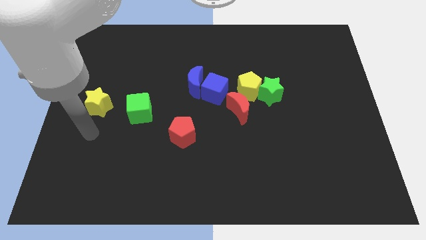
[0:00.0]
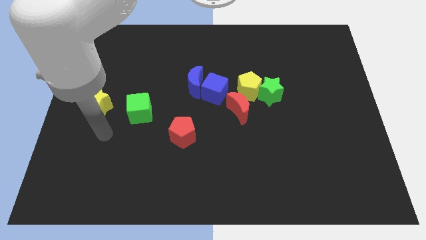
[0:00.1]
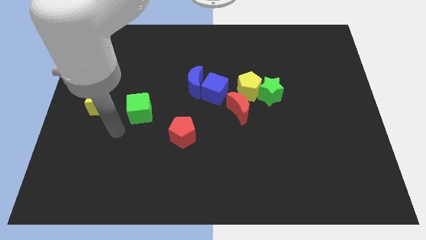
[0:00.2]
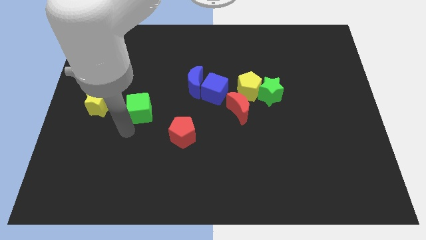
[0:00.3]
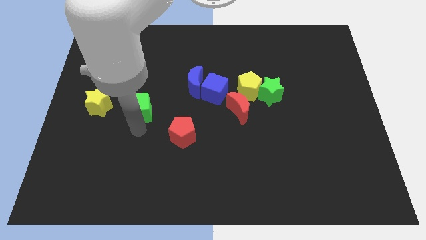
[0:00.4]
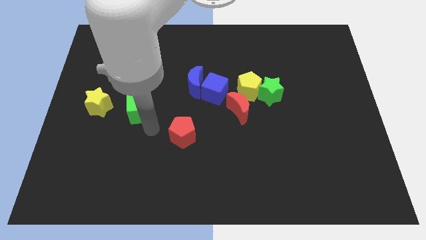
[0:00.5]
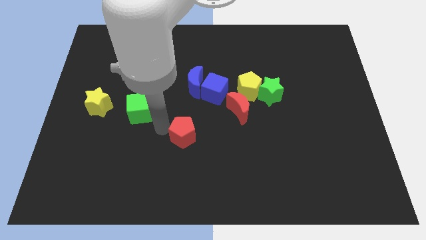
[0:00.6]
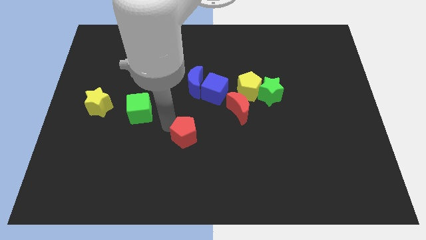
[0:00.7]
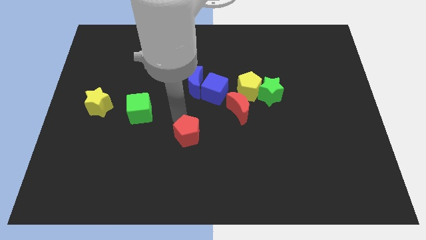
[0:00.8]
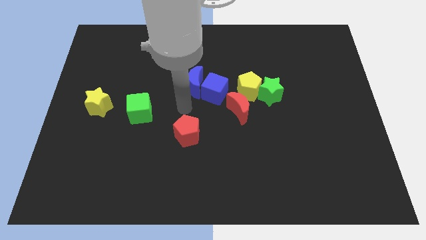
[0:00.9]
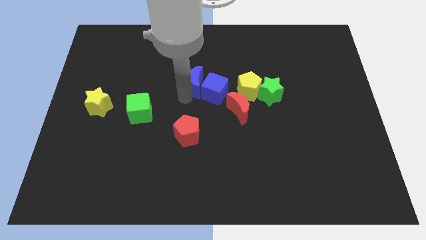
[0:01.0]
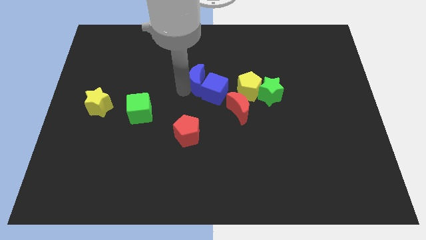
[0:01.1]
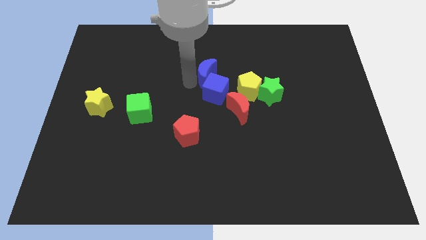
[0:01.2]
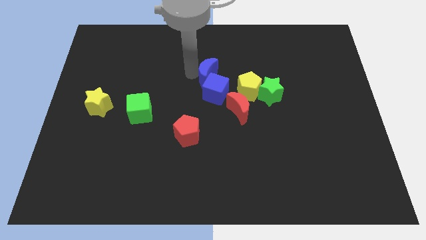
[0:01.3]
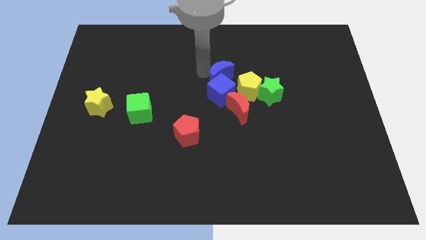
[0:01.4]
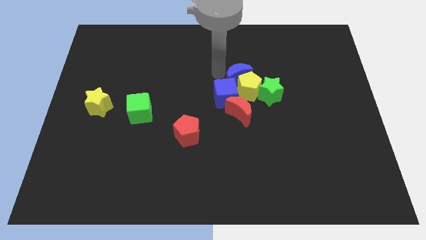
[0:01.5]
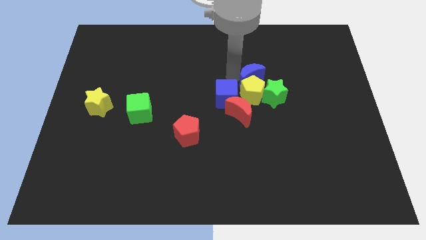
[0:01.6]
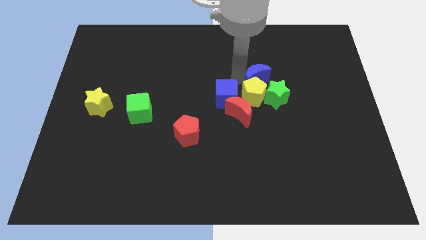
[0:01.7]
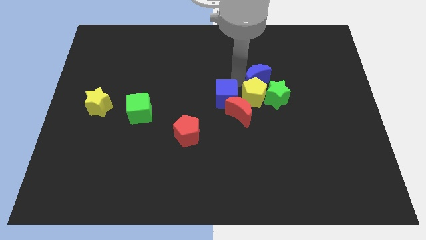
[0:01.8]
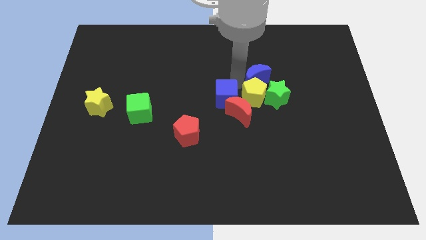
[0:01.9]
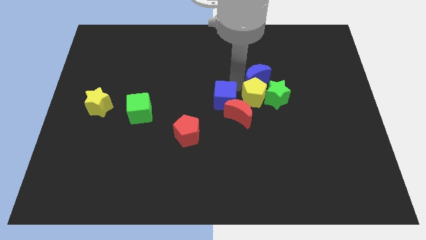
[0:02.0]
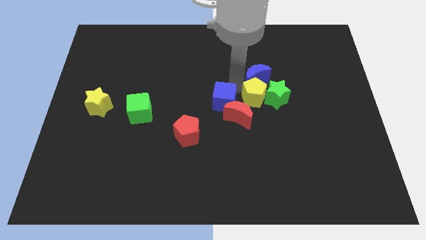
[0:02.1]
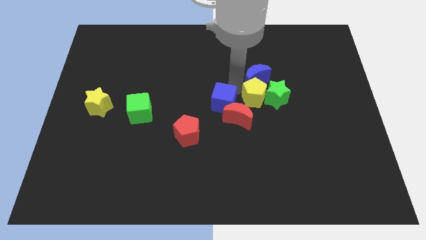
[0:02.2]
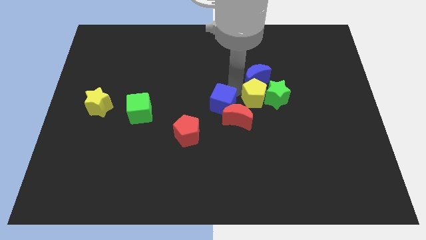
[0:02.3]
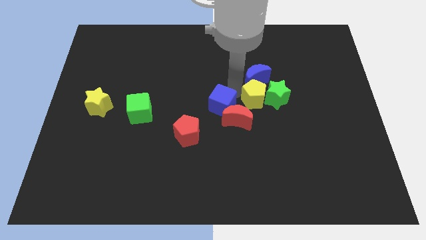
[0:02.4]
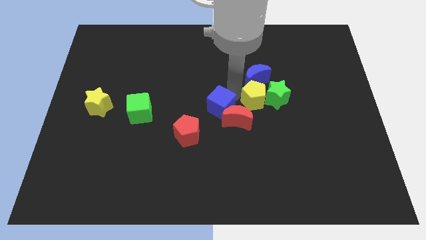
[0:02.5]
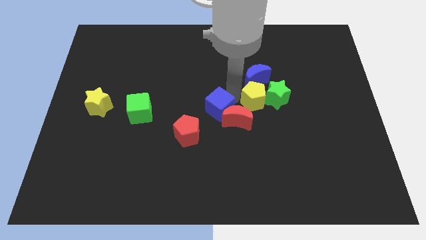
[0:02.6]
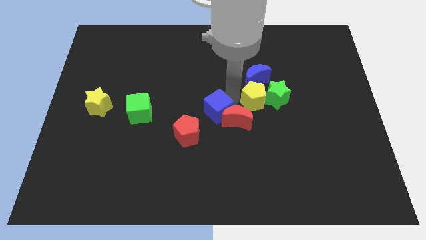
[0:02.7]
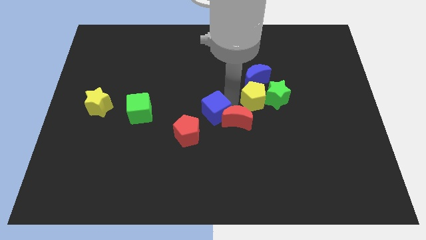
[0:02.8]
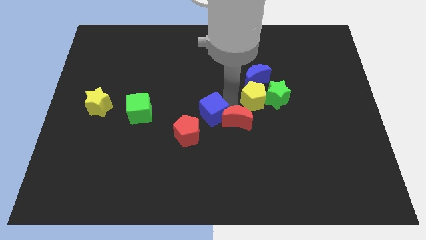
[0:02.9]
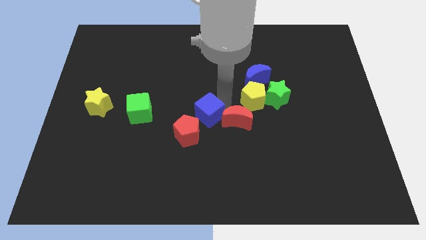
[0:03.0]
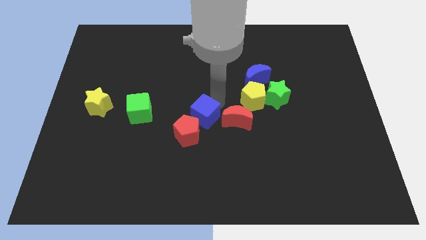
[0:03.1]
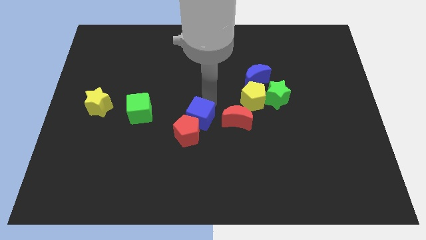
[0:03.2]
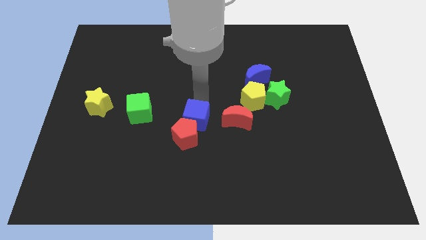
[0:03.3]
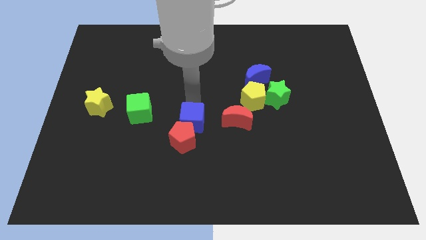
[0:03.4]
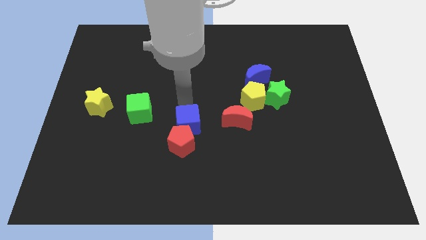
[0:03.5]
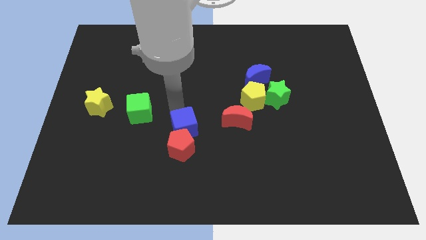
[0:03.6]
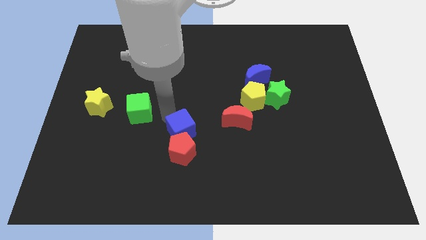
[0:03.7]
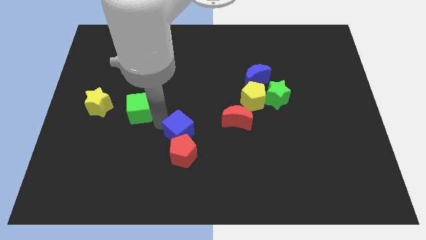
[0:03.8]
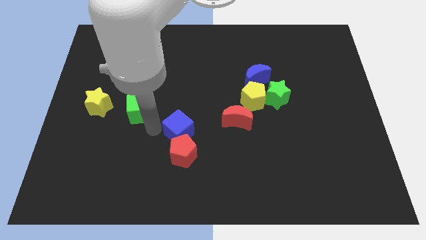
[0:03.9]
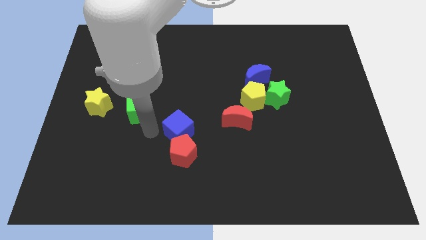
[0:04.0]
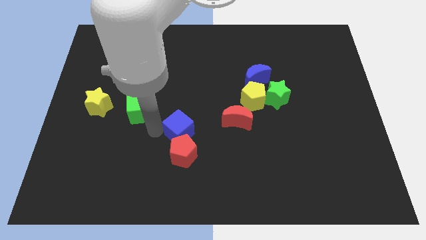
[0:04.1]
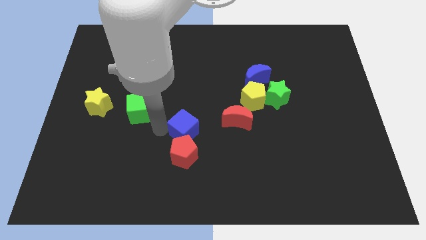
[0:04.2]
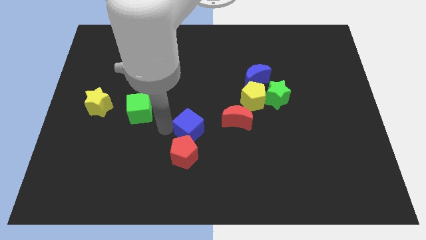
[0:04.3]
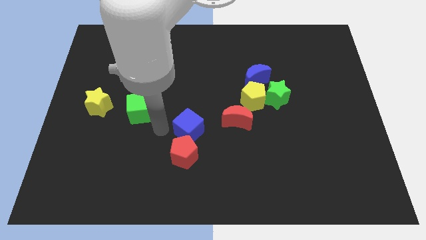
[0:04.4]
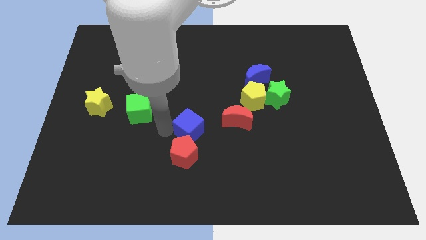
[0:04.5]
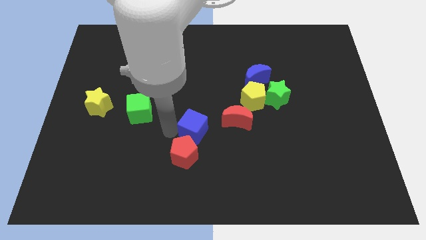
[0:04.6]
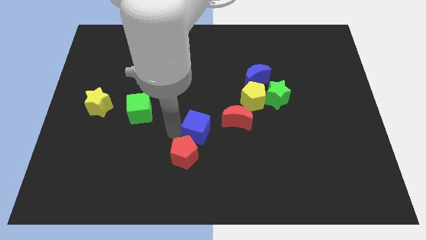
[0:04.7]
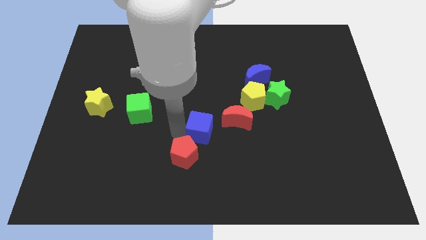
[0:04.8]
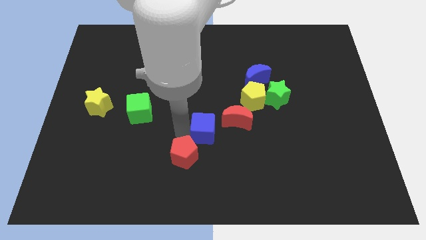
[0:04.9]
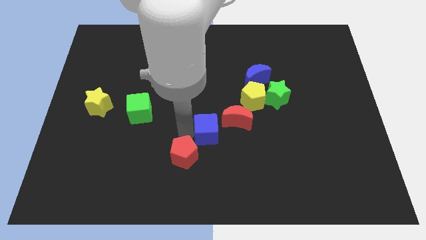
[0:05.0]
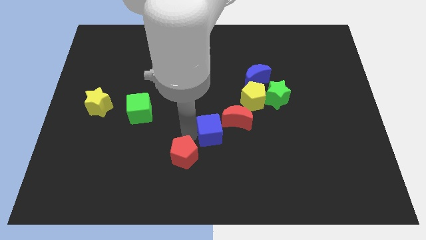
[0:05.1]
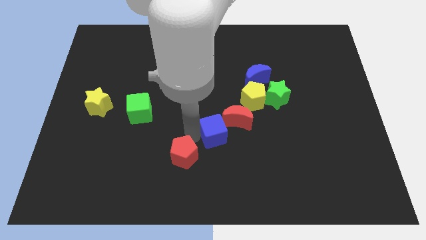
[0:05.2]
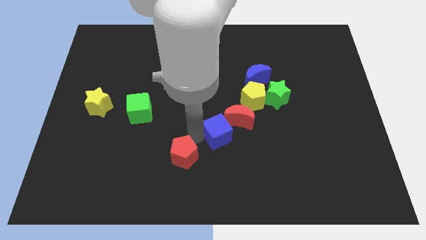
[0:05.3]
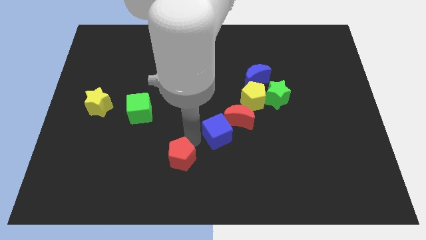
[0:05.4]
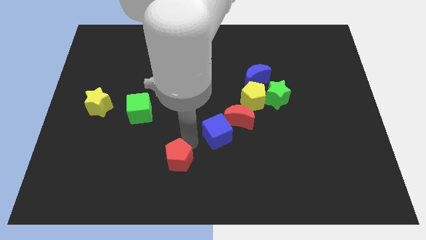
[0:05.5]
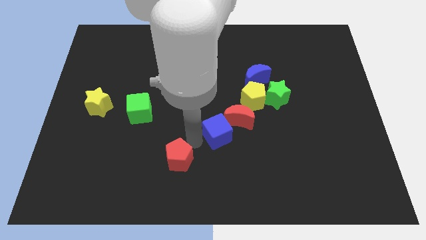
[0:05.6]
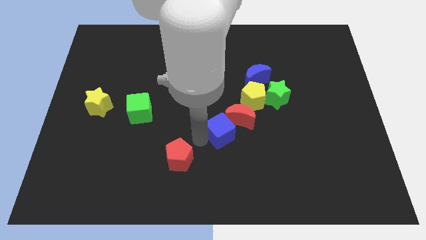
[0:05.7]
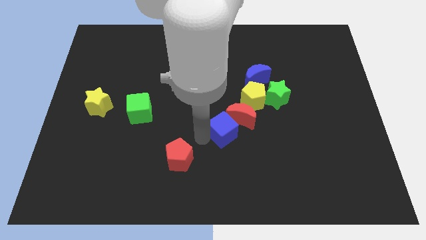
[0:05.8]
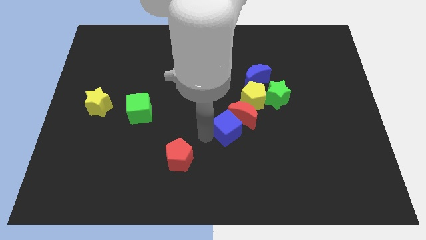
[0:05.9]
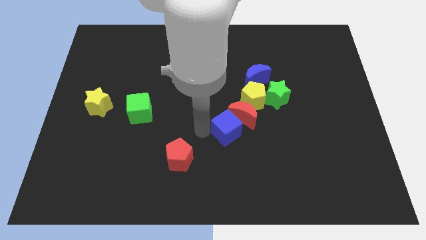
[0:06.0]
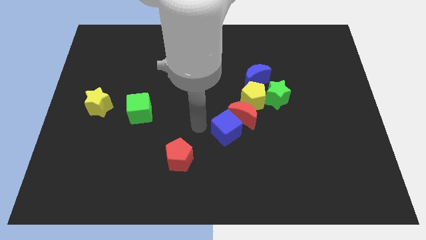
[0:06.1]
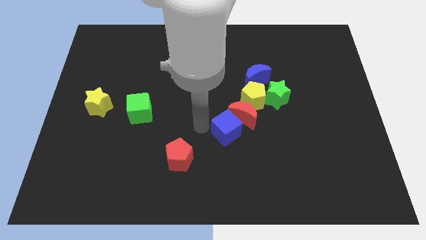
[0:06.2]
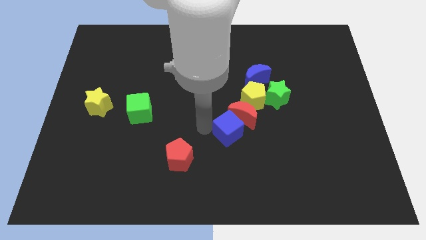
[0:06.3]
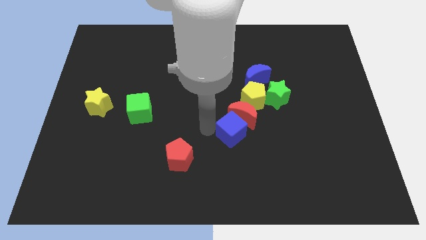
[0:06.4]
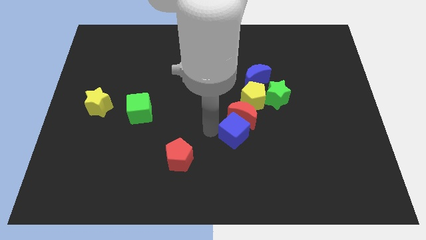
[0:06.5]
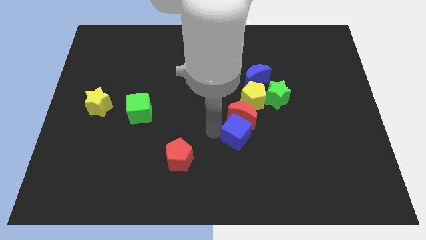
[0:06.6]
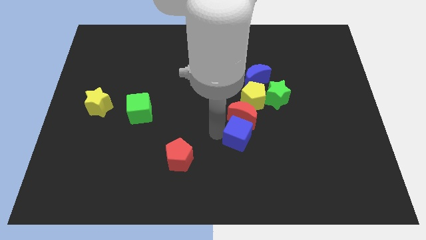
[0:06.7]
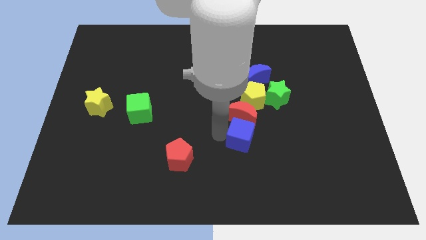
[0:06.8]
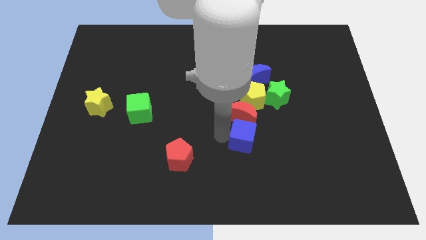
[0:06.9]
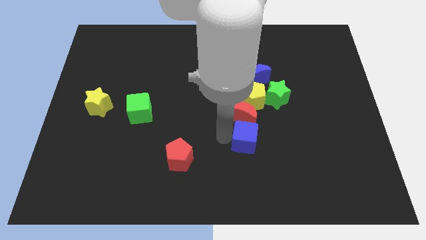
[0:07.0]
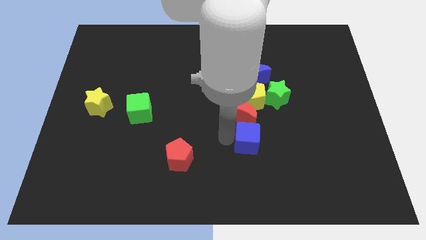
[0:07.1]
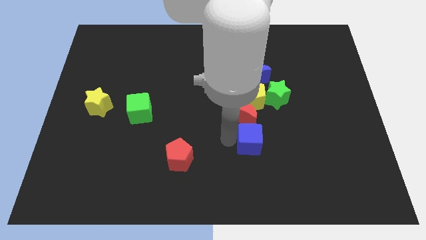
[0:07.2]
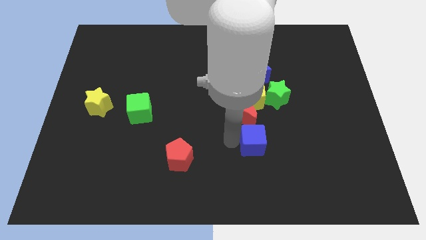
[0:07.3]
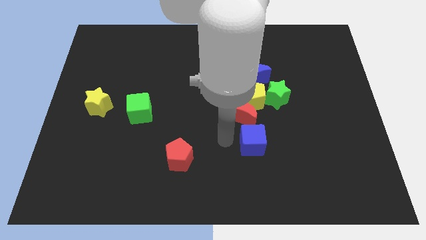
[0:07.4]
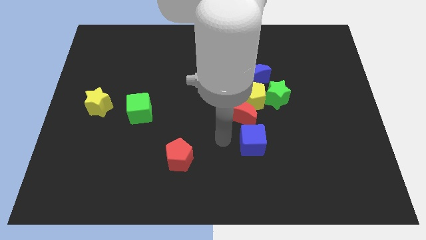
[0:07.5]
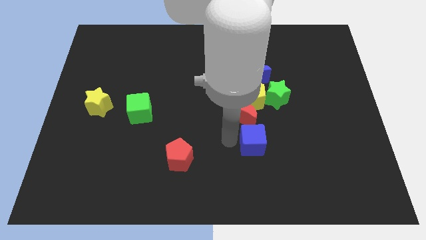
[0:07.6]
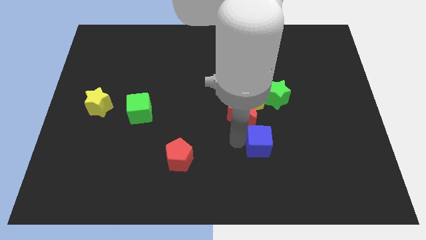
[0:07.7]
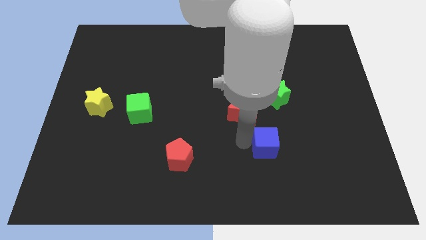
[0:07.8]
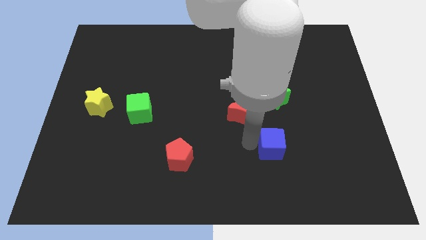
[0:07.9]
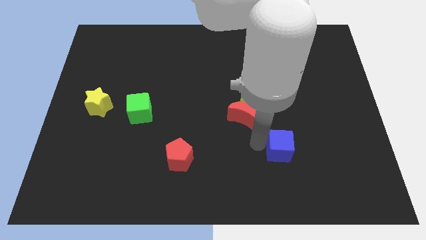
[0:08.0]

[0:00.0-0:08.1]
push the blue cube diagonally downwards and right
